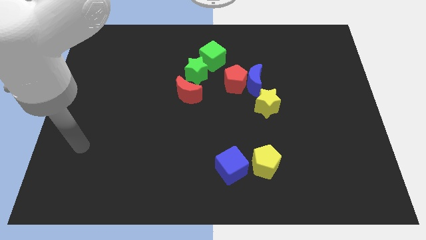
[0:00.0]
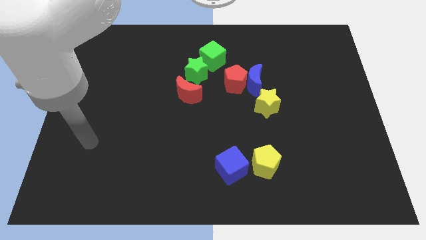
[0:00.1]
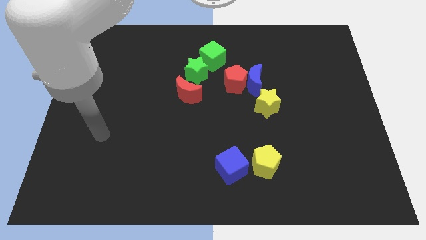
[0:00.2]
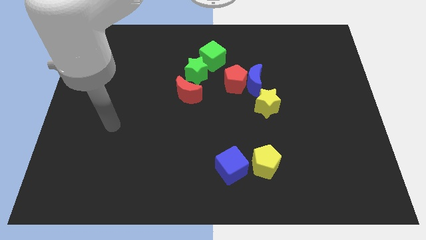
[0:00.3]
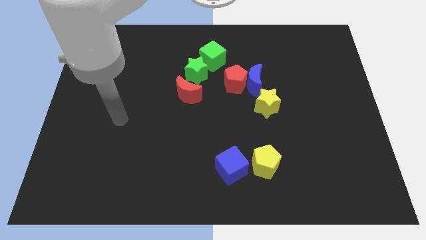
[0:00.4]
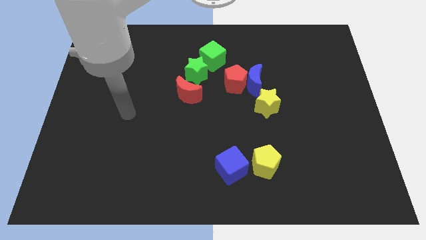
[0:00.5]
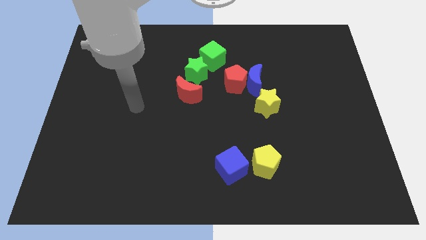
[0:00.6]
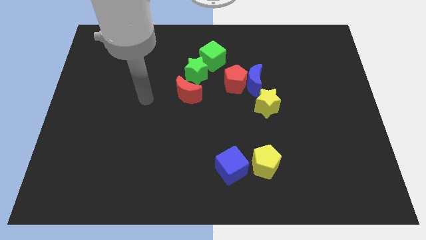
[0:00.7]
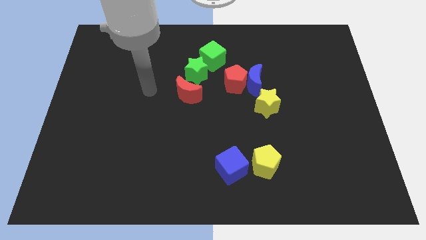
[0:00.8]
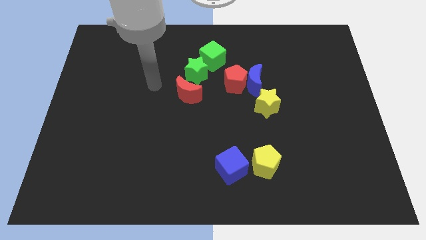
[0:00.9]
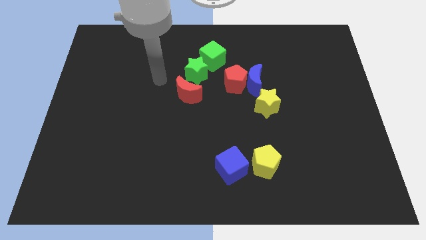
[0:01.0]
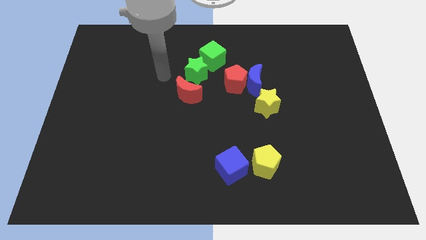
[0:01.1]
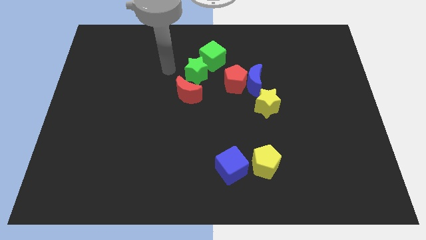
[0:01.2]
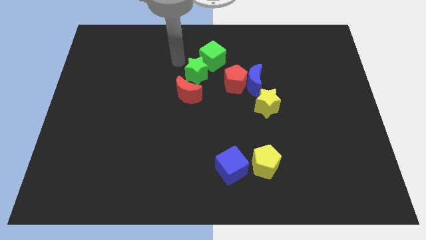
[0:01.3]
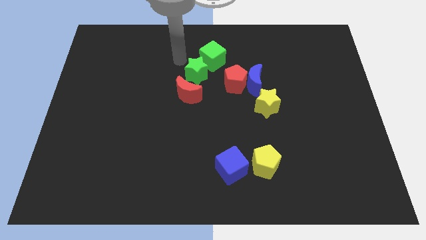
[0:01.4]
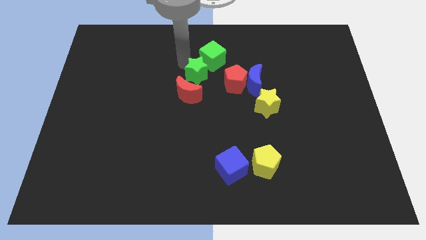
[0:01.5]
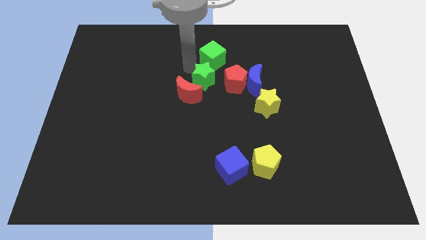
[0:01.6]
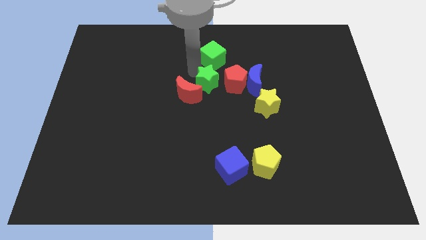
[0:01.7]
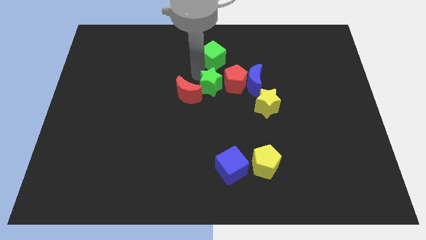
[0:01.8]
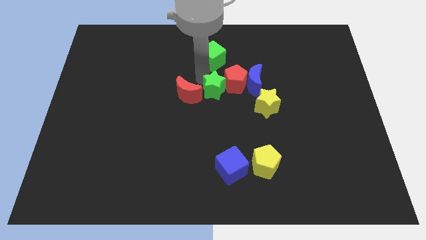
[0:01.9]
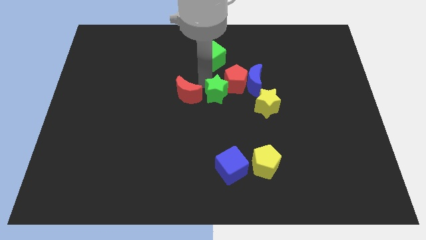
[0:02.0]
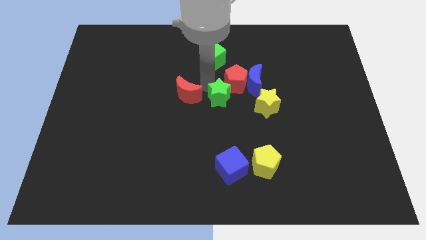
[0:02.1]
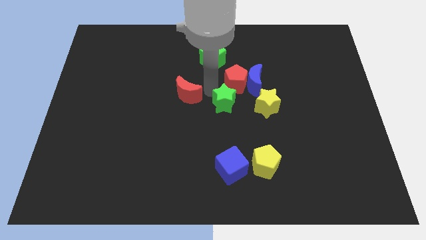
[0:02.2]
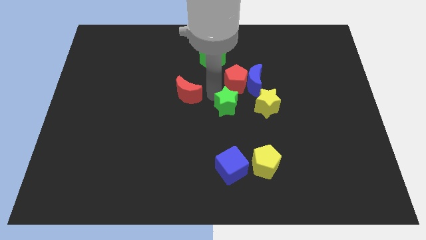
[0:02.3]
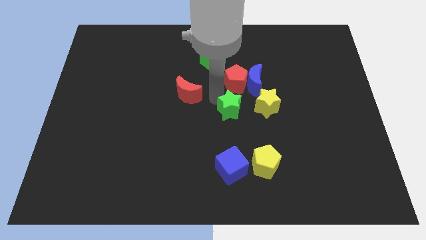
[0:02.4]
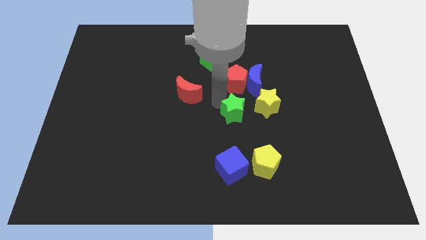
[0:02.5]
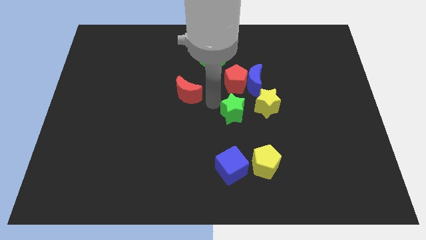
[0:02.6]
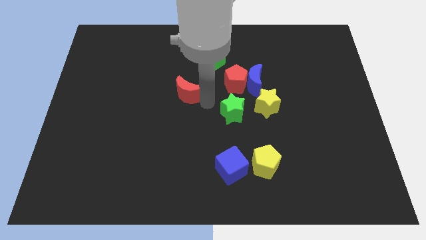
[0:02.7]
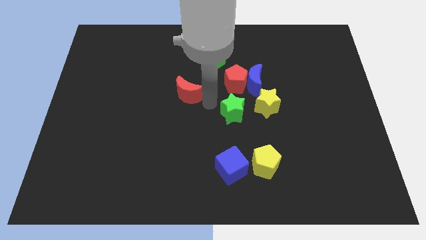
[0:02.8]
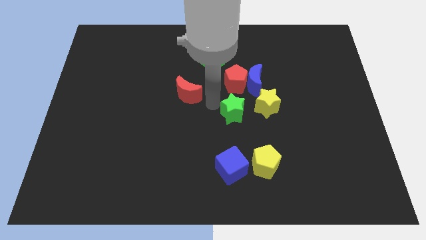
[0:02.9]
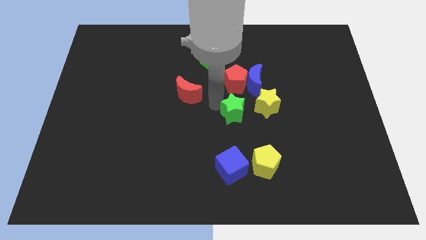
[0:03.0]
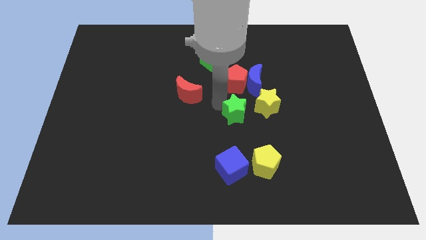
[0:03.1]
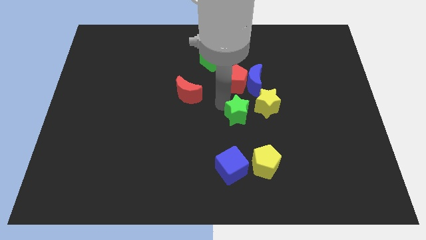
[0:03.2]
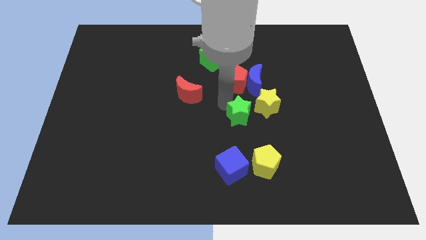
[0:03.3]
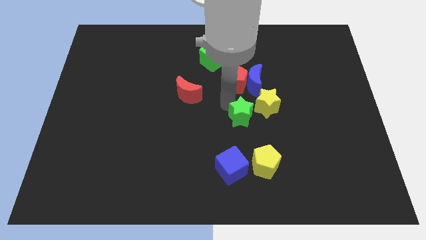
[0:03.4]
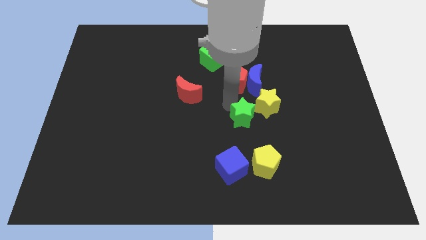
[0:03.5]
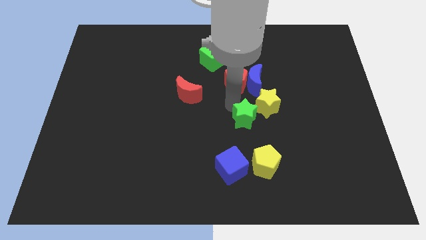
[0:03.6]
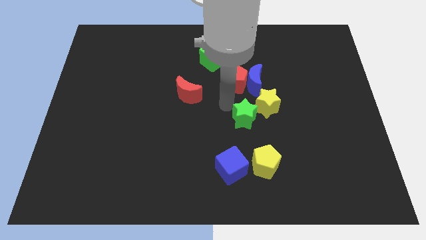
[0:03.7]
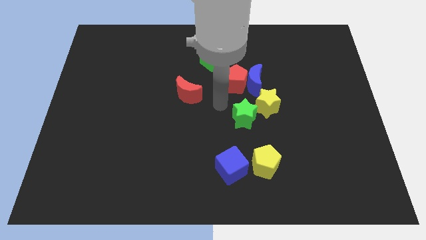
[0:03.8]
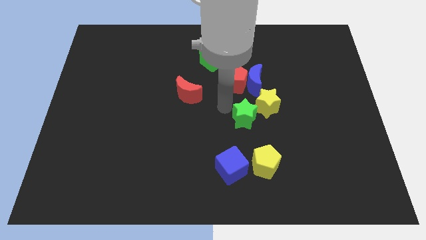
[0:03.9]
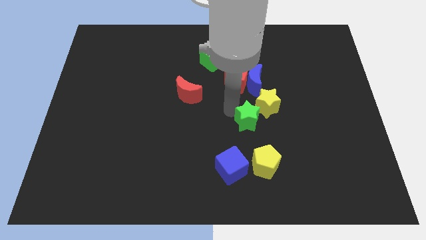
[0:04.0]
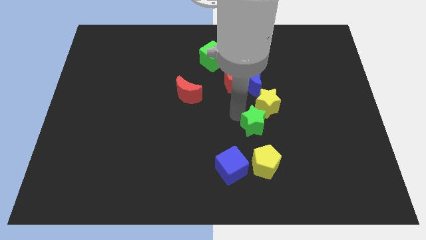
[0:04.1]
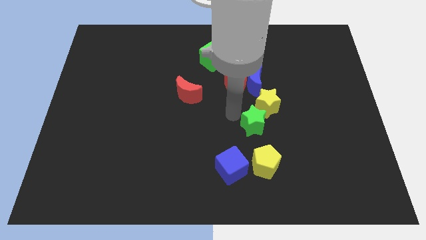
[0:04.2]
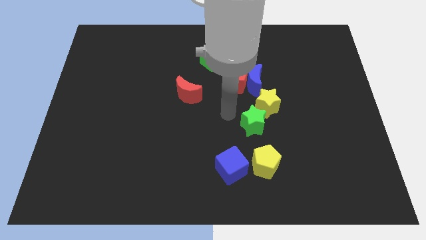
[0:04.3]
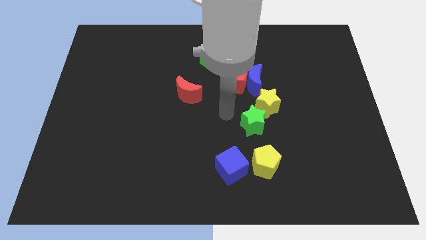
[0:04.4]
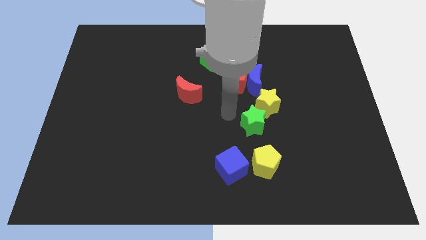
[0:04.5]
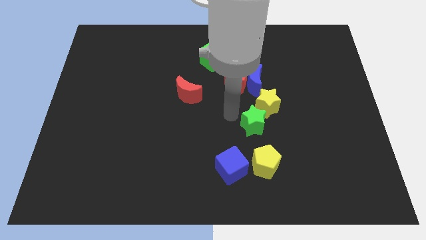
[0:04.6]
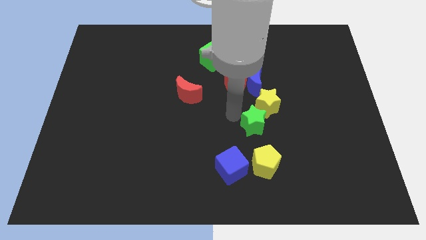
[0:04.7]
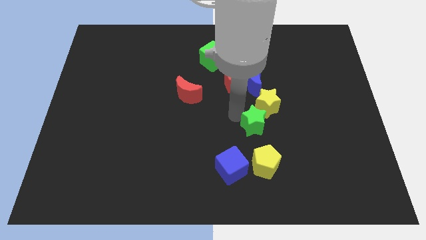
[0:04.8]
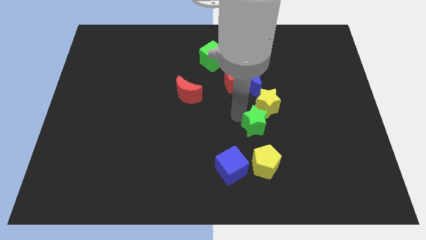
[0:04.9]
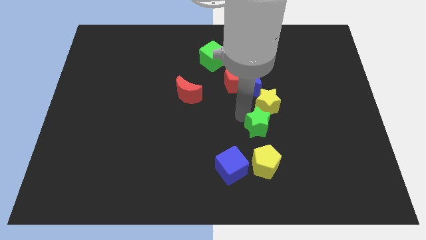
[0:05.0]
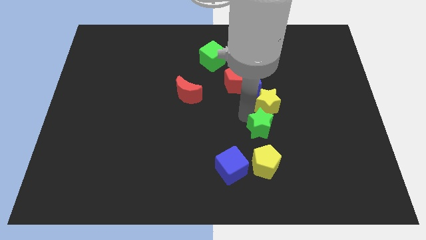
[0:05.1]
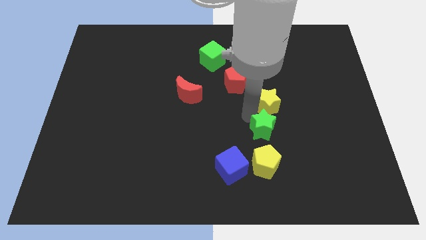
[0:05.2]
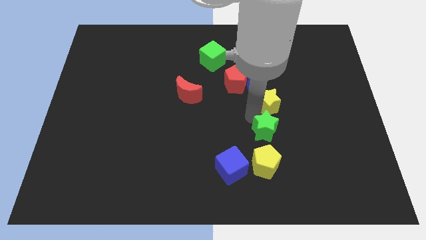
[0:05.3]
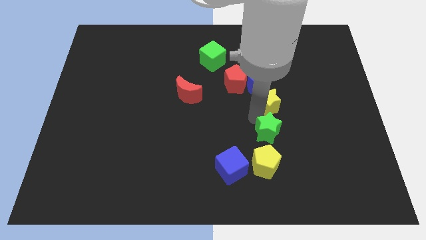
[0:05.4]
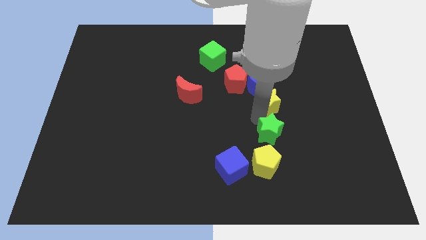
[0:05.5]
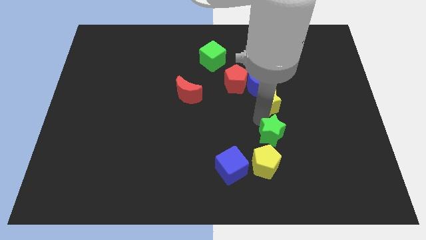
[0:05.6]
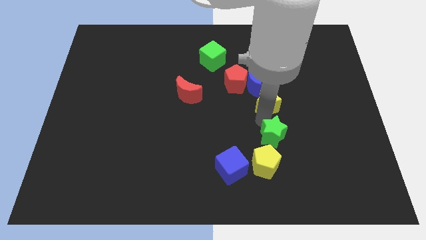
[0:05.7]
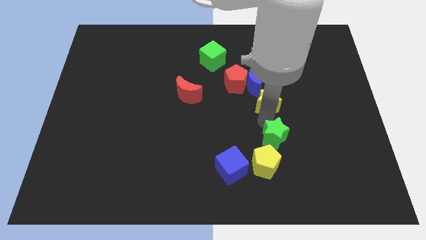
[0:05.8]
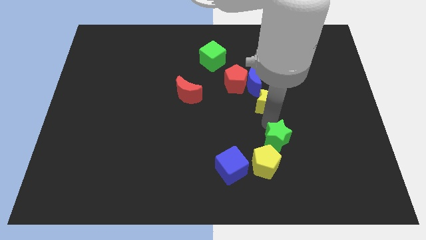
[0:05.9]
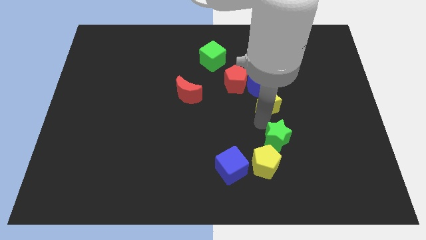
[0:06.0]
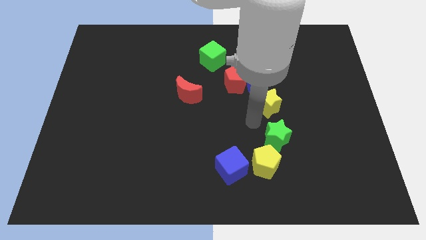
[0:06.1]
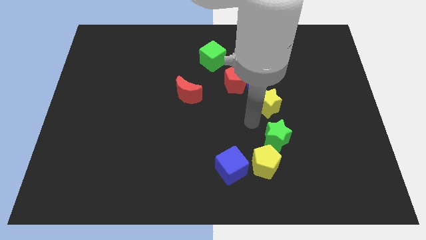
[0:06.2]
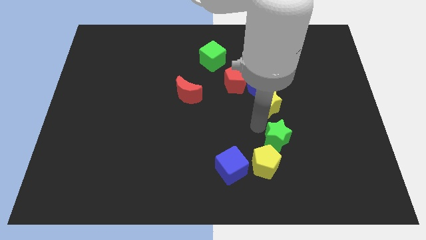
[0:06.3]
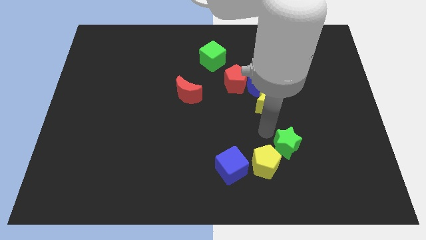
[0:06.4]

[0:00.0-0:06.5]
move the green star right of the yellow pentagon
